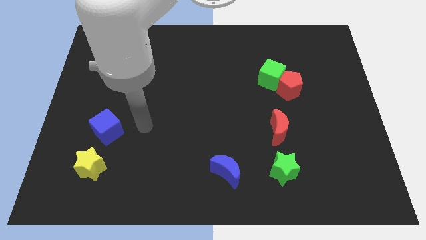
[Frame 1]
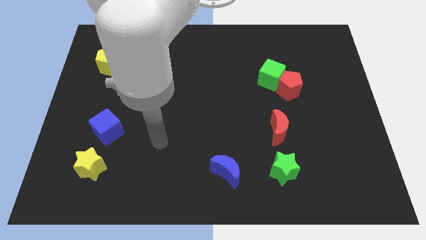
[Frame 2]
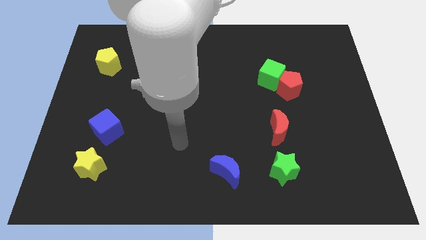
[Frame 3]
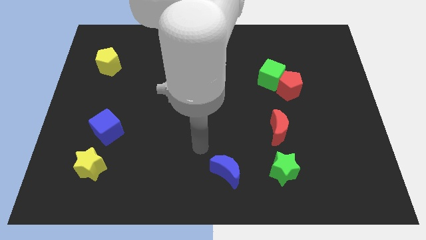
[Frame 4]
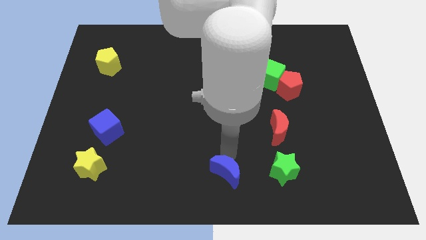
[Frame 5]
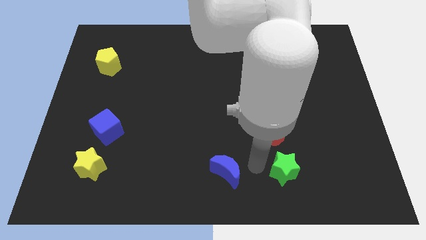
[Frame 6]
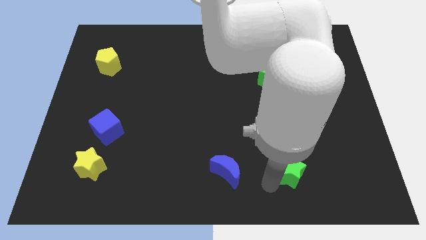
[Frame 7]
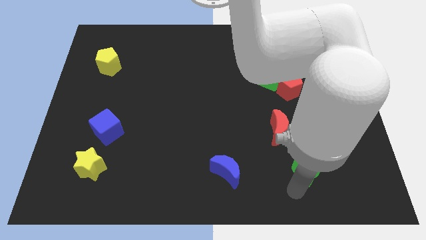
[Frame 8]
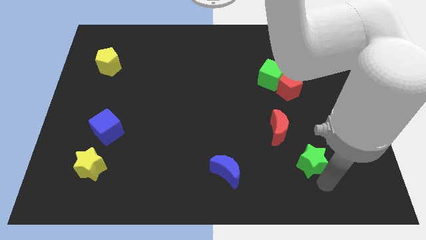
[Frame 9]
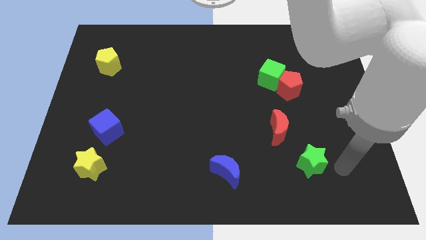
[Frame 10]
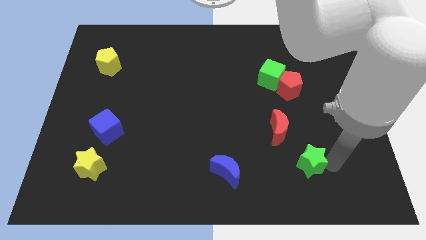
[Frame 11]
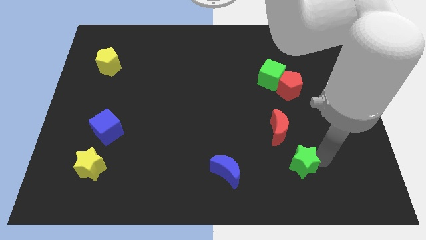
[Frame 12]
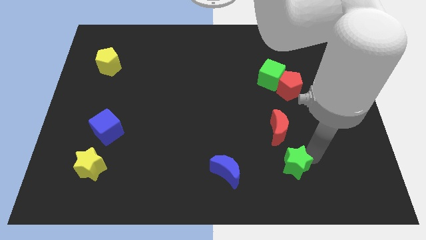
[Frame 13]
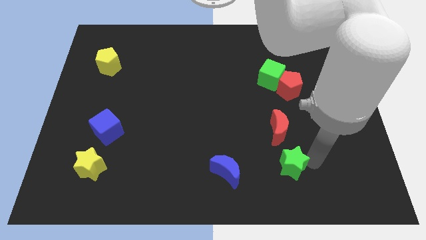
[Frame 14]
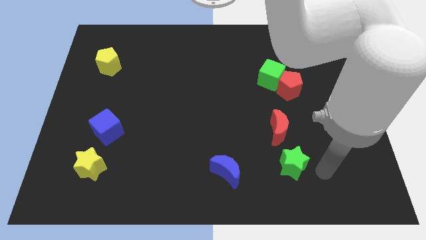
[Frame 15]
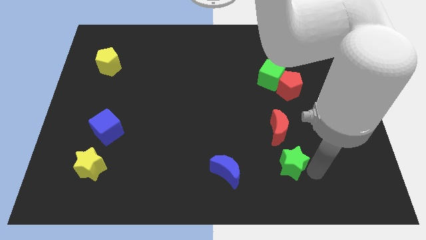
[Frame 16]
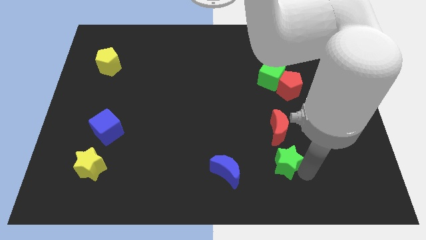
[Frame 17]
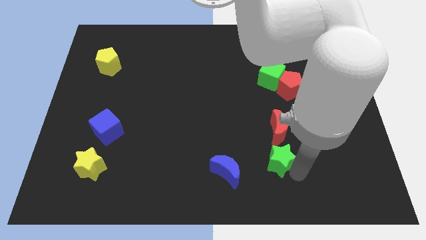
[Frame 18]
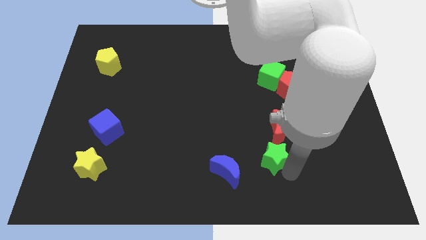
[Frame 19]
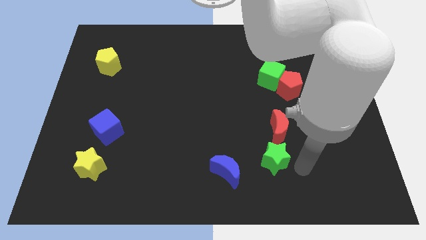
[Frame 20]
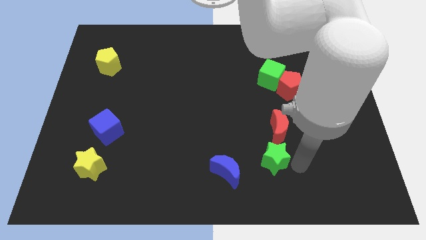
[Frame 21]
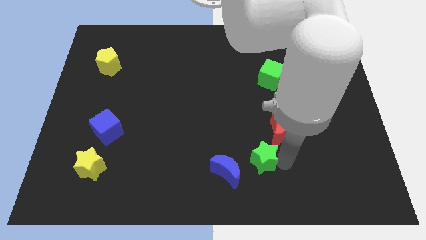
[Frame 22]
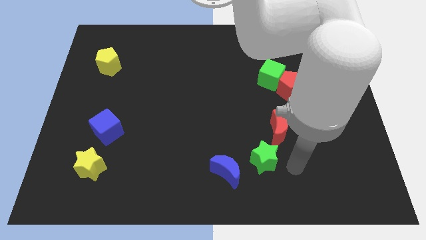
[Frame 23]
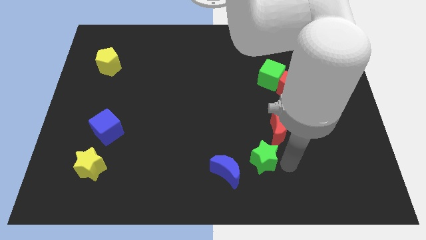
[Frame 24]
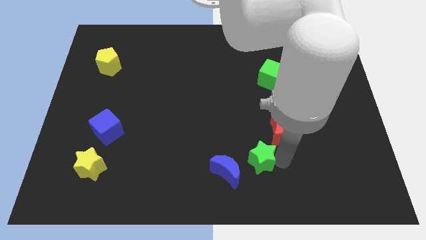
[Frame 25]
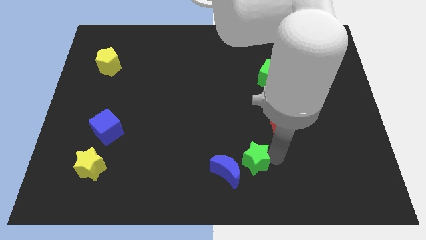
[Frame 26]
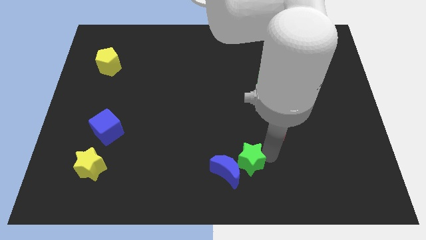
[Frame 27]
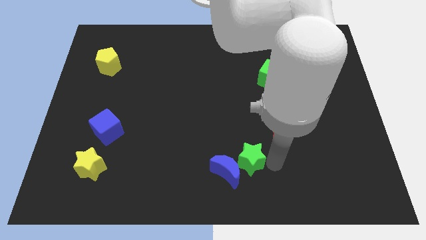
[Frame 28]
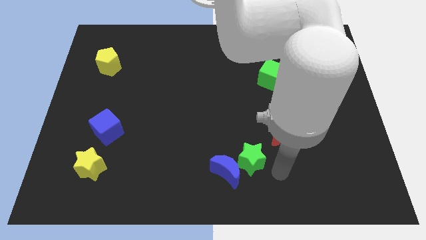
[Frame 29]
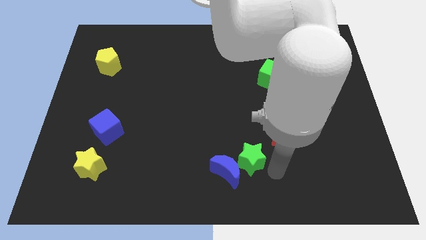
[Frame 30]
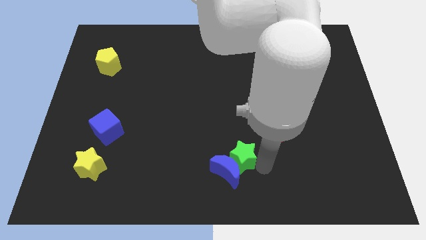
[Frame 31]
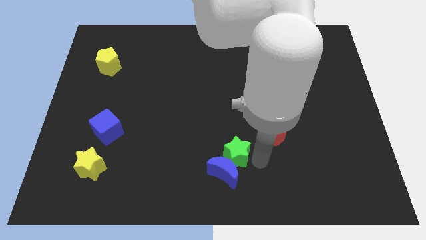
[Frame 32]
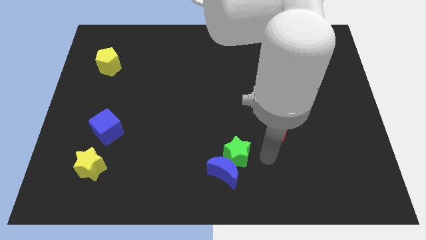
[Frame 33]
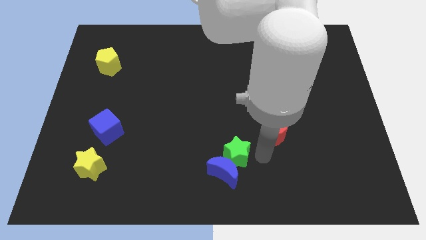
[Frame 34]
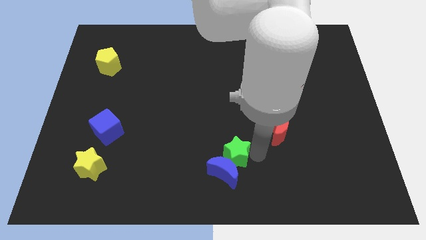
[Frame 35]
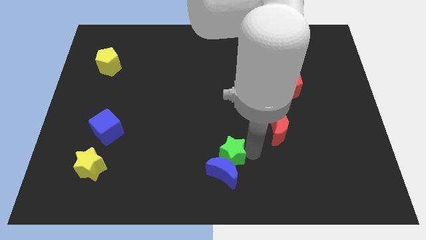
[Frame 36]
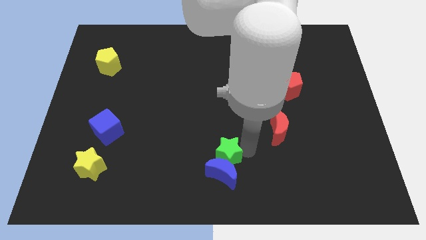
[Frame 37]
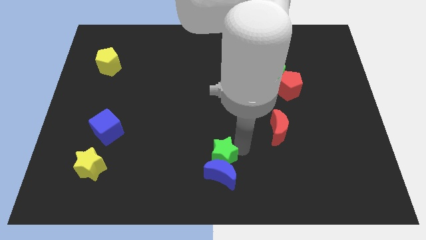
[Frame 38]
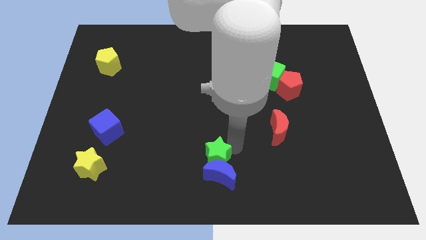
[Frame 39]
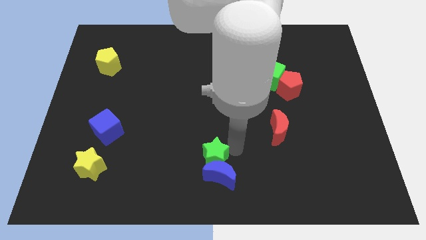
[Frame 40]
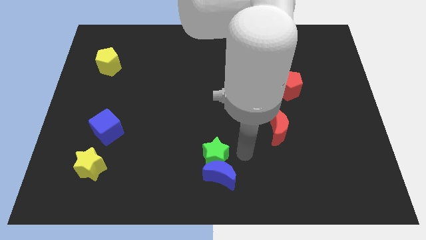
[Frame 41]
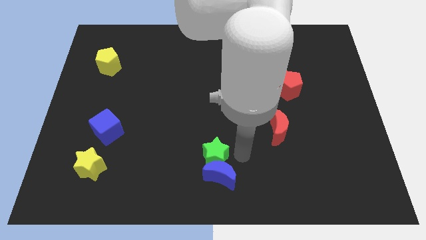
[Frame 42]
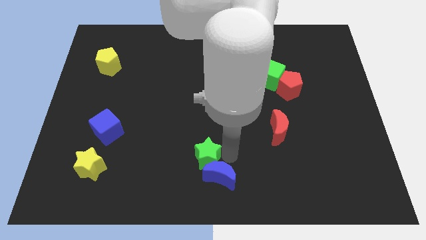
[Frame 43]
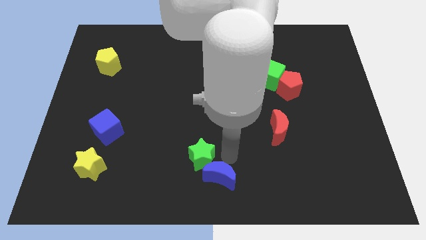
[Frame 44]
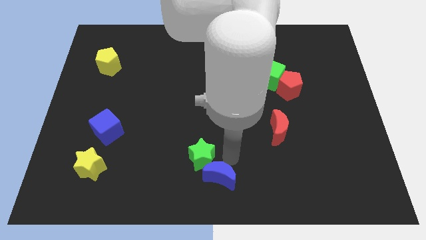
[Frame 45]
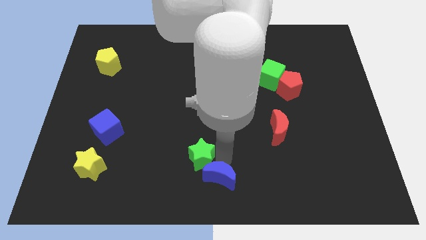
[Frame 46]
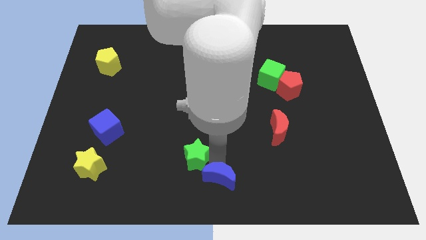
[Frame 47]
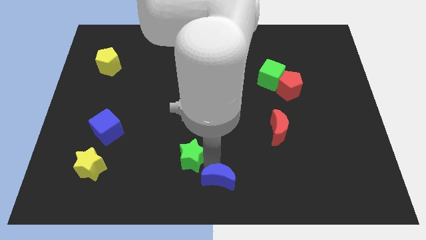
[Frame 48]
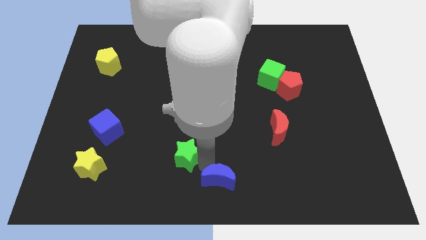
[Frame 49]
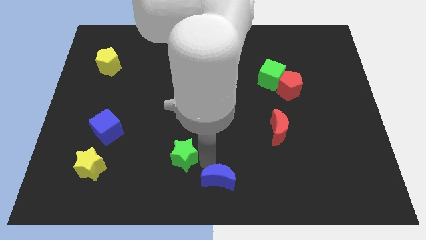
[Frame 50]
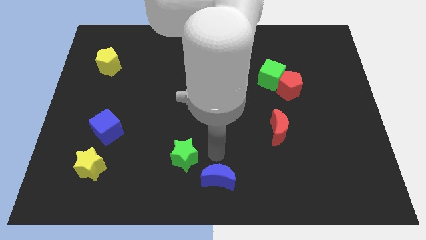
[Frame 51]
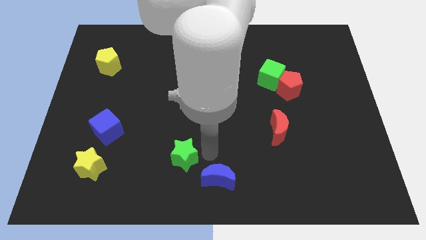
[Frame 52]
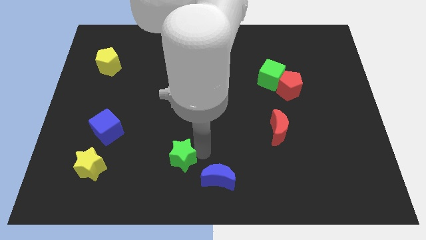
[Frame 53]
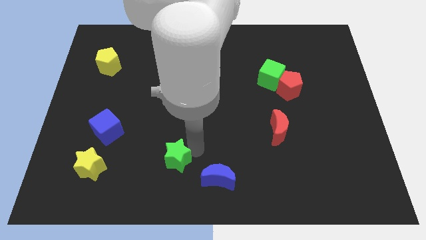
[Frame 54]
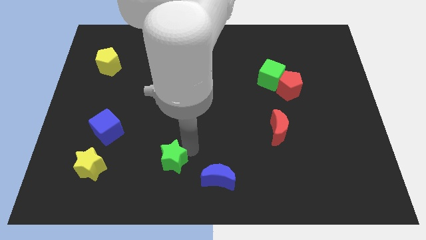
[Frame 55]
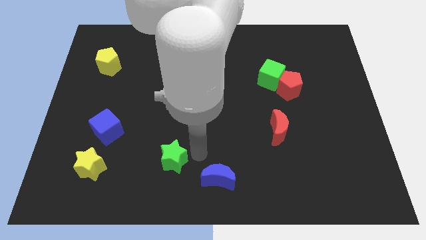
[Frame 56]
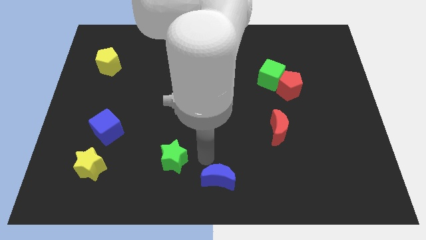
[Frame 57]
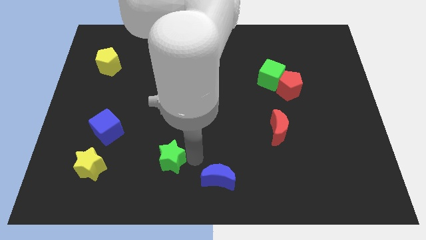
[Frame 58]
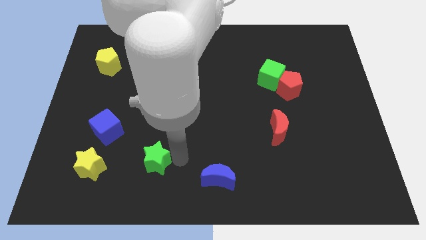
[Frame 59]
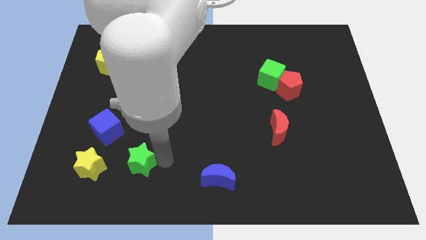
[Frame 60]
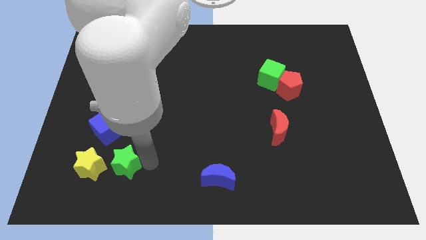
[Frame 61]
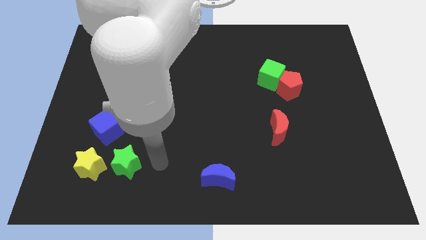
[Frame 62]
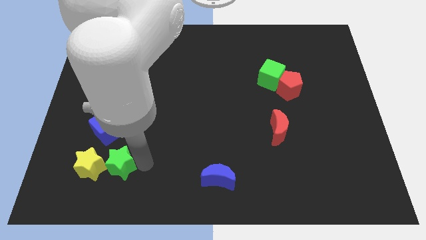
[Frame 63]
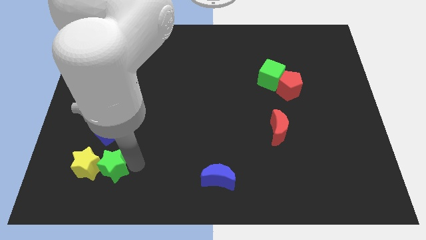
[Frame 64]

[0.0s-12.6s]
push the green star next to the yellow star
